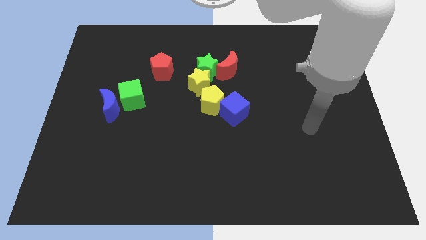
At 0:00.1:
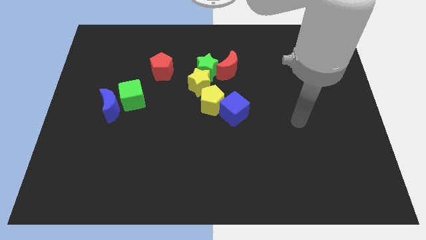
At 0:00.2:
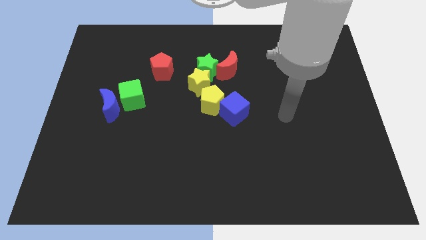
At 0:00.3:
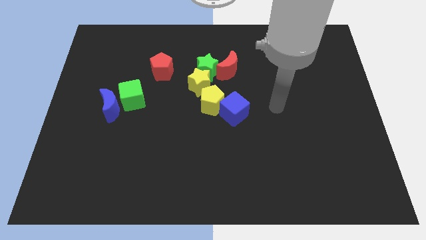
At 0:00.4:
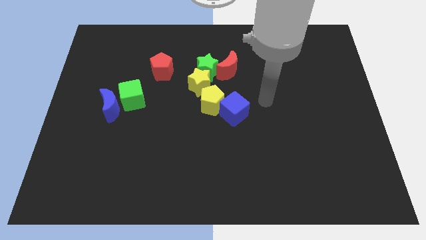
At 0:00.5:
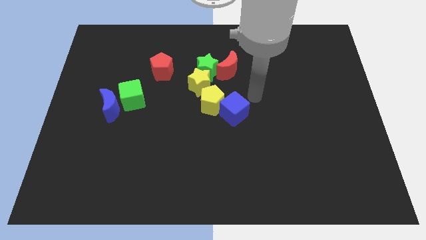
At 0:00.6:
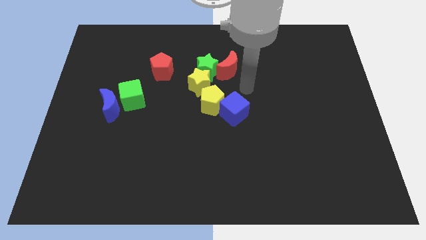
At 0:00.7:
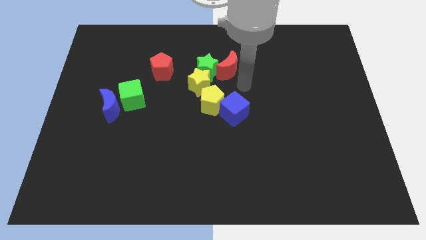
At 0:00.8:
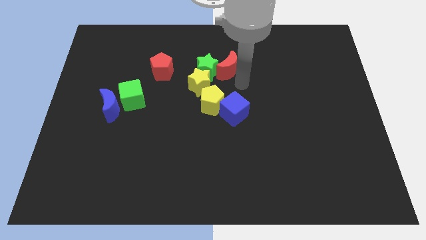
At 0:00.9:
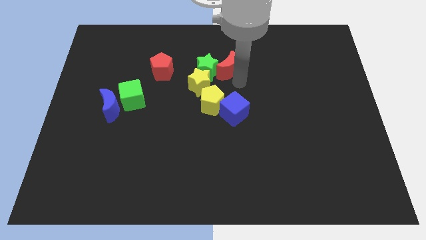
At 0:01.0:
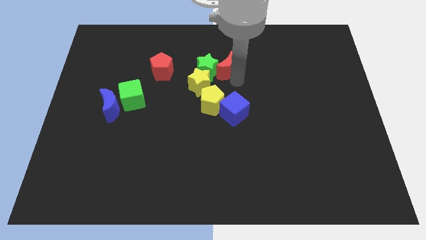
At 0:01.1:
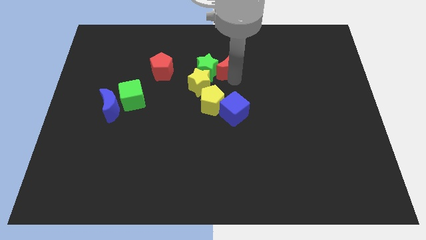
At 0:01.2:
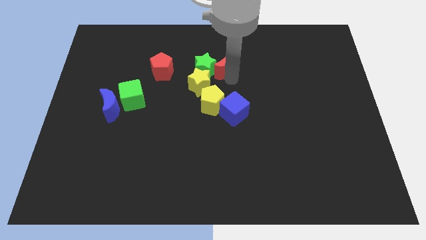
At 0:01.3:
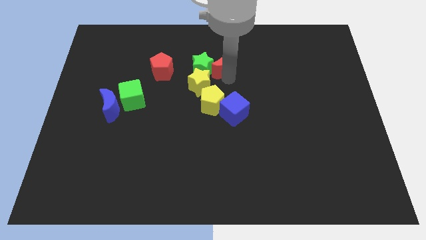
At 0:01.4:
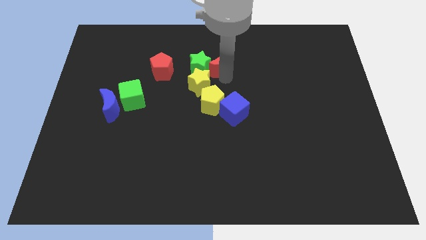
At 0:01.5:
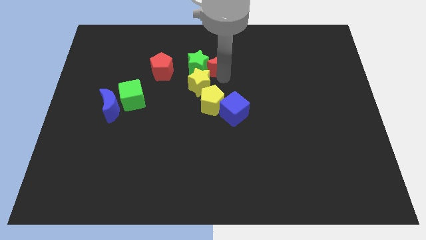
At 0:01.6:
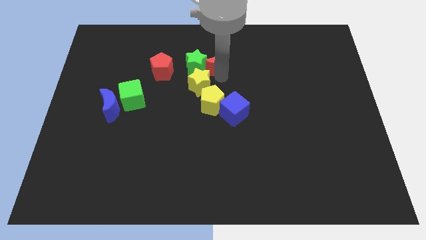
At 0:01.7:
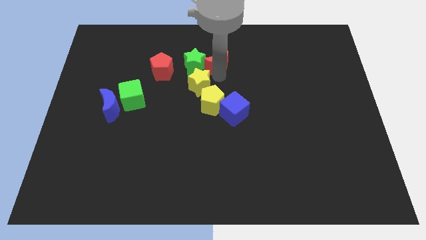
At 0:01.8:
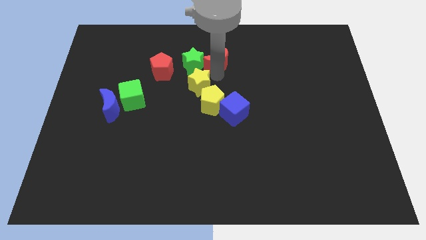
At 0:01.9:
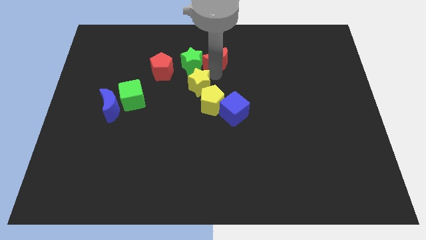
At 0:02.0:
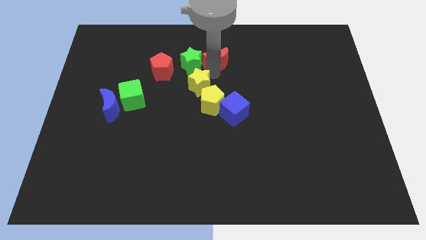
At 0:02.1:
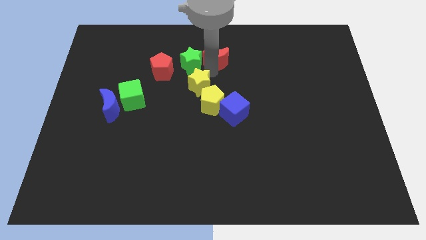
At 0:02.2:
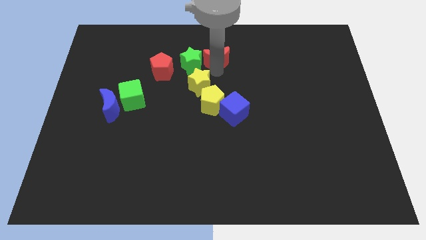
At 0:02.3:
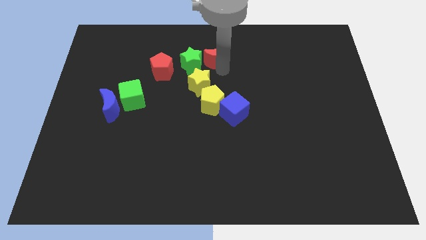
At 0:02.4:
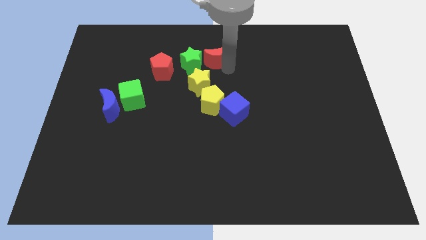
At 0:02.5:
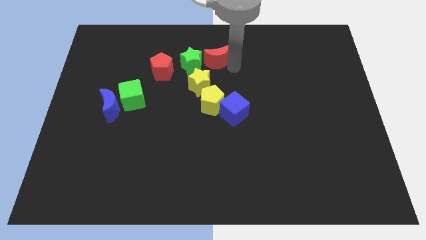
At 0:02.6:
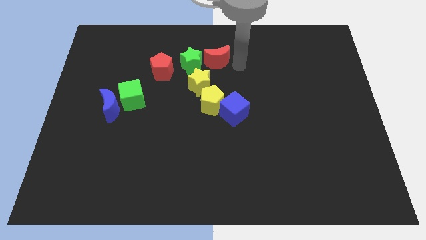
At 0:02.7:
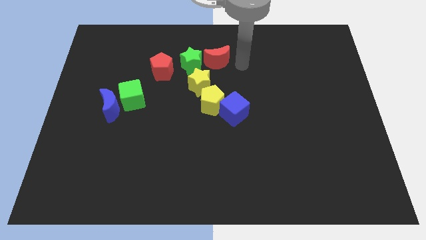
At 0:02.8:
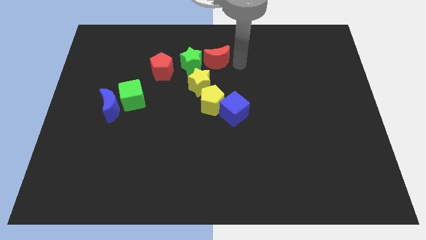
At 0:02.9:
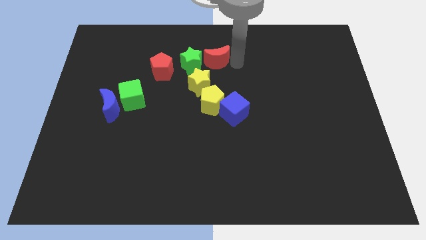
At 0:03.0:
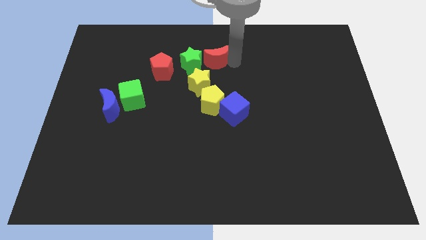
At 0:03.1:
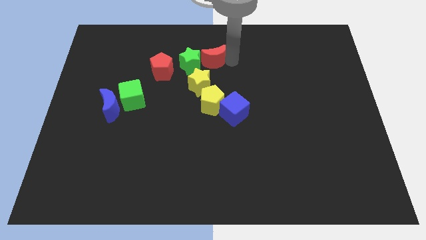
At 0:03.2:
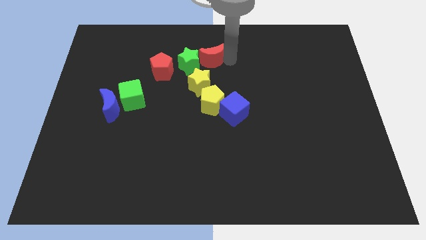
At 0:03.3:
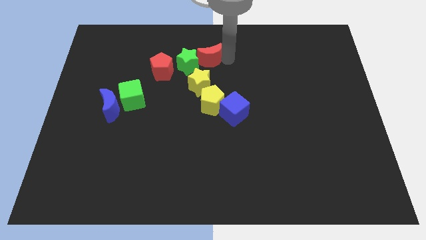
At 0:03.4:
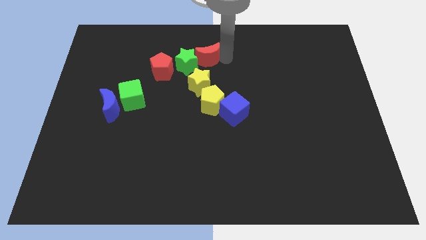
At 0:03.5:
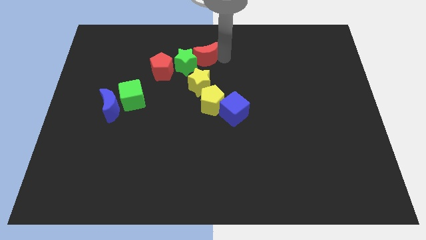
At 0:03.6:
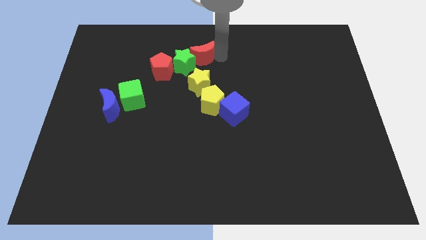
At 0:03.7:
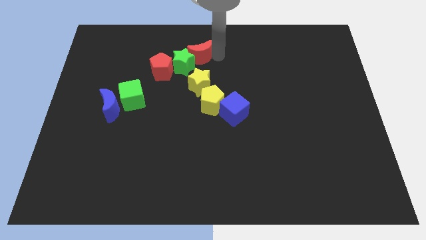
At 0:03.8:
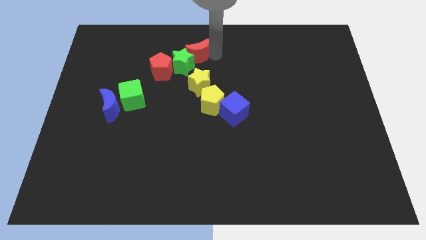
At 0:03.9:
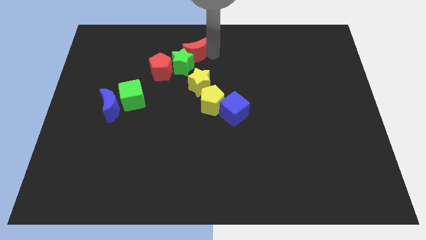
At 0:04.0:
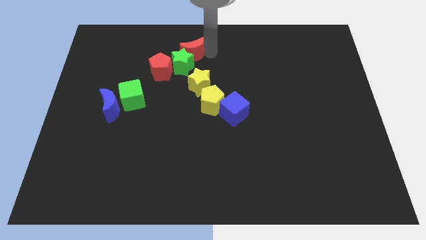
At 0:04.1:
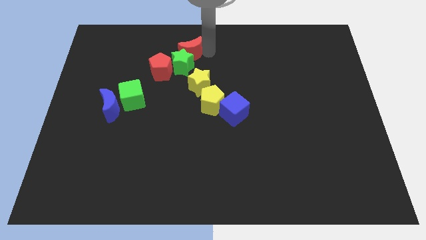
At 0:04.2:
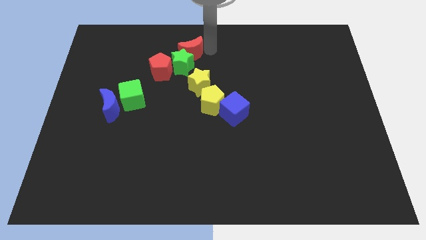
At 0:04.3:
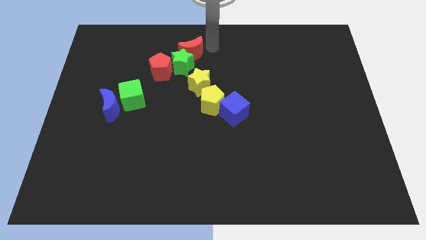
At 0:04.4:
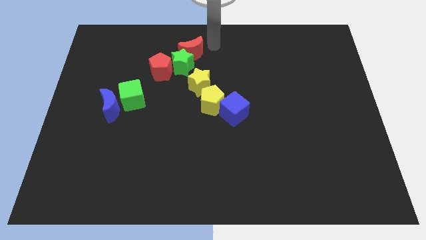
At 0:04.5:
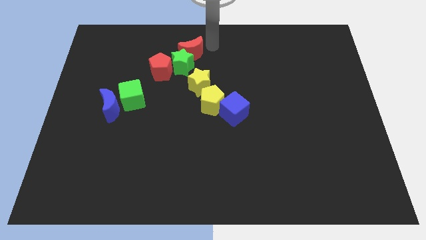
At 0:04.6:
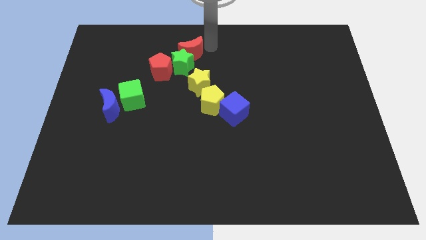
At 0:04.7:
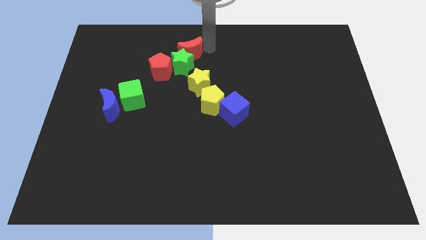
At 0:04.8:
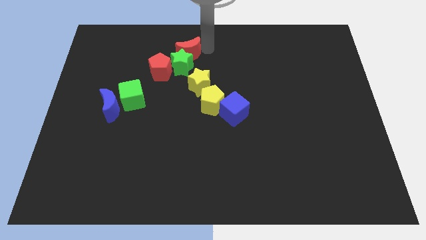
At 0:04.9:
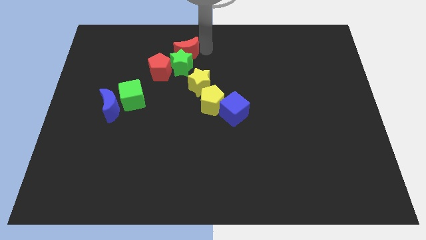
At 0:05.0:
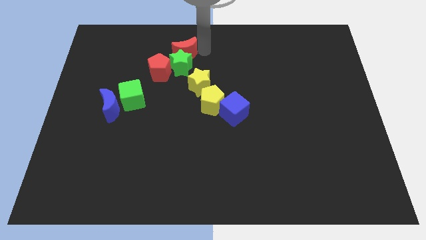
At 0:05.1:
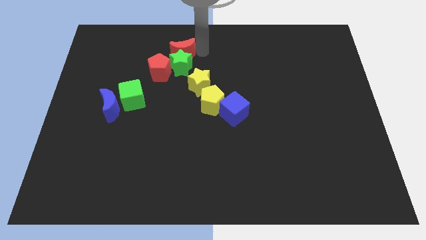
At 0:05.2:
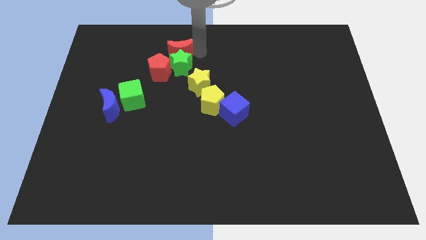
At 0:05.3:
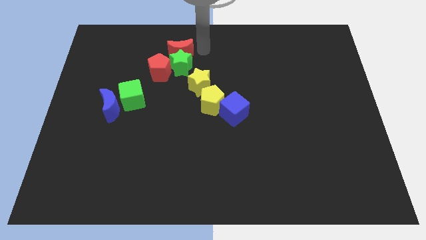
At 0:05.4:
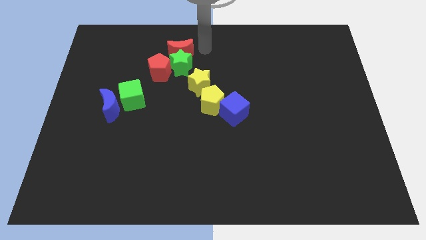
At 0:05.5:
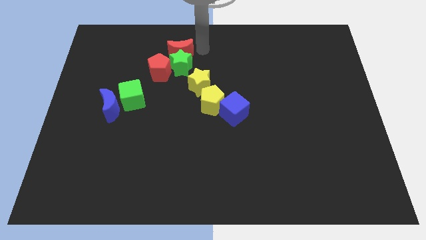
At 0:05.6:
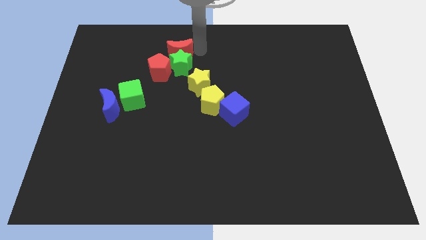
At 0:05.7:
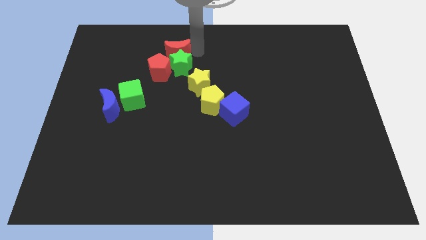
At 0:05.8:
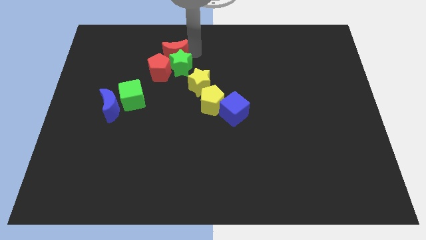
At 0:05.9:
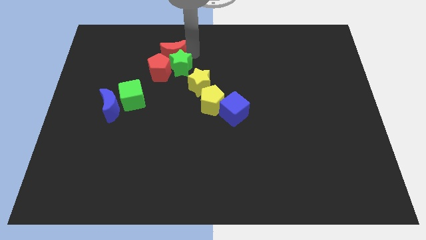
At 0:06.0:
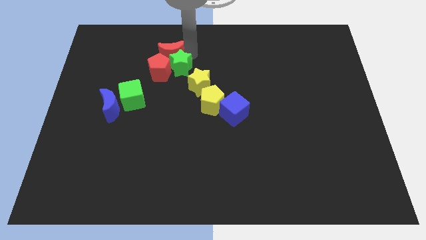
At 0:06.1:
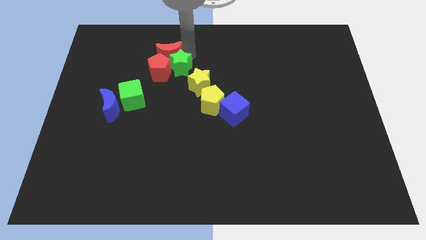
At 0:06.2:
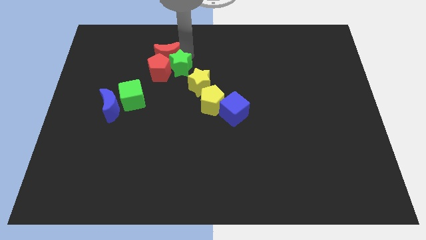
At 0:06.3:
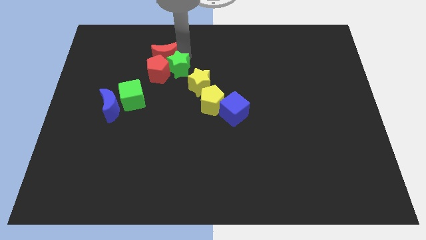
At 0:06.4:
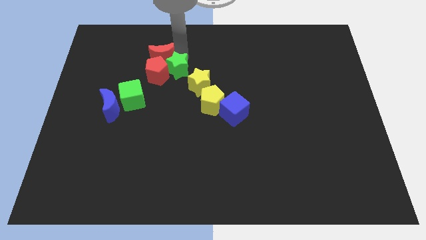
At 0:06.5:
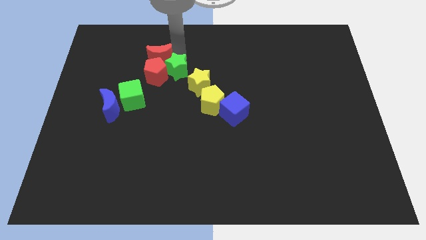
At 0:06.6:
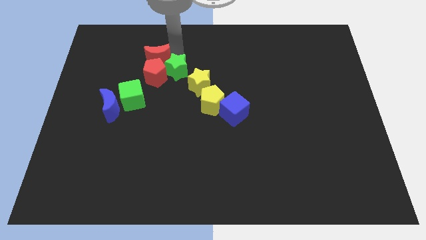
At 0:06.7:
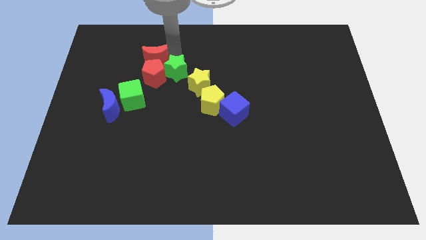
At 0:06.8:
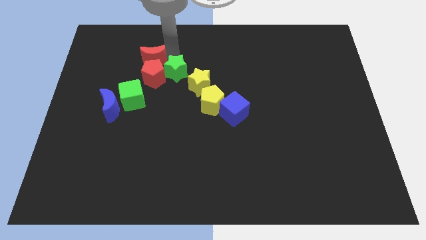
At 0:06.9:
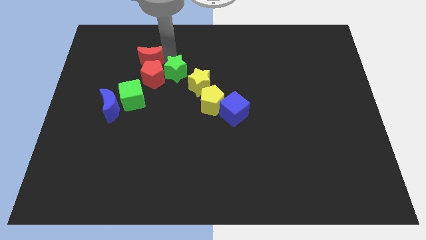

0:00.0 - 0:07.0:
slide the red moon left

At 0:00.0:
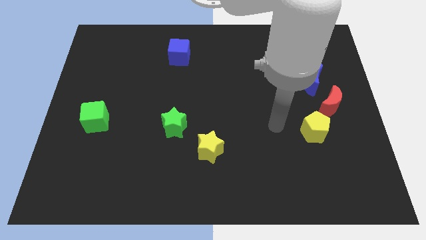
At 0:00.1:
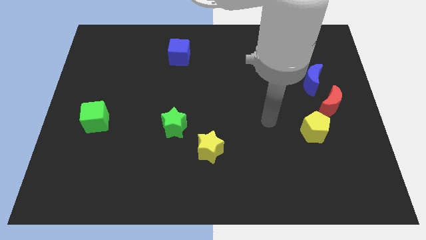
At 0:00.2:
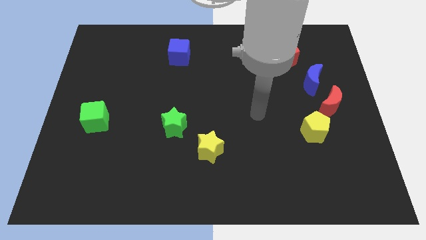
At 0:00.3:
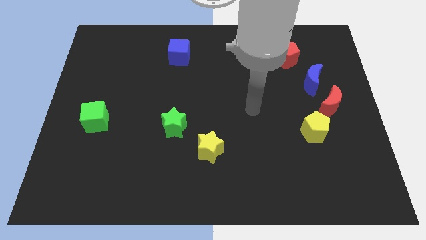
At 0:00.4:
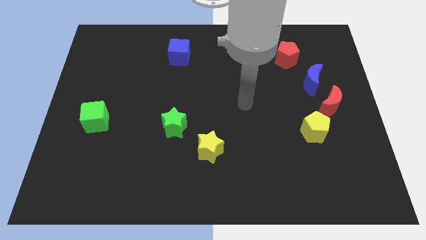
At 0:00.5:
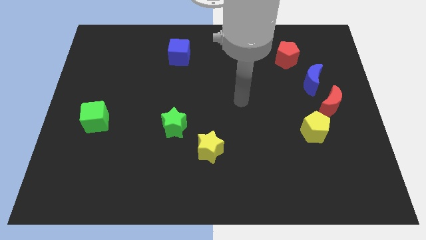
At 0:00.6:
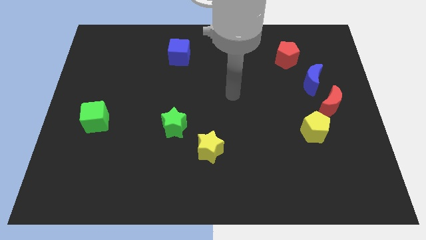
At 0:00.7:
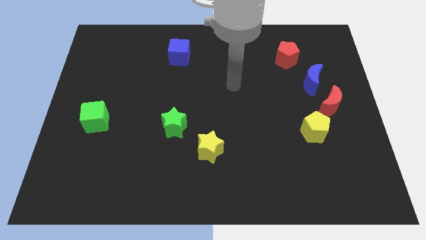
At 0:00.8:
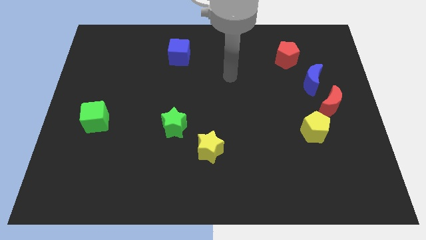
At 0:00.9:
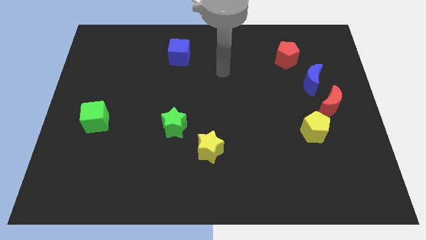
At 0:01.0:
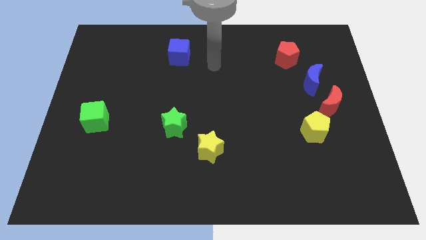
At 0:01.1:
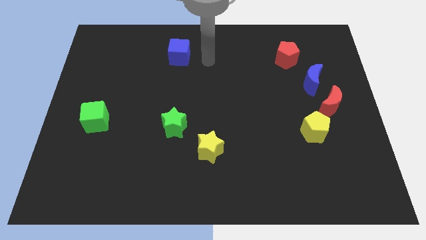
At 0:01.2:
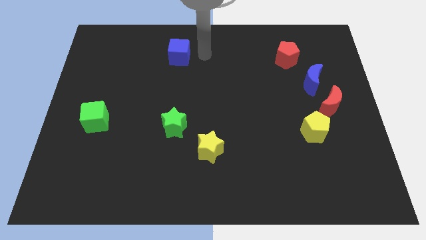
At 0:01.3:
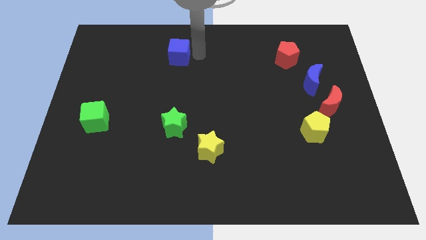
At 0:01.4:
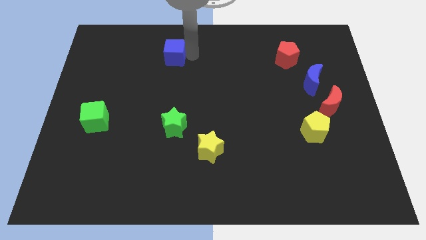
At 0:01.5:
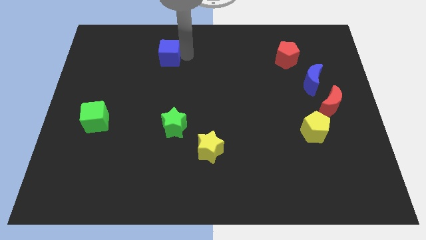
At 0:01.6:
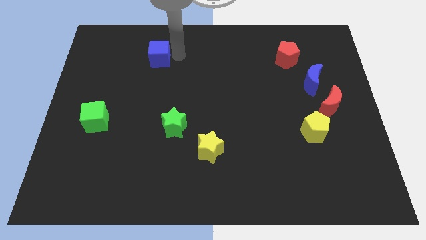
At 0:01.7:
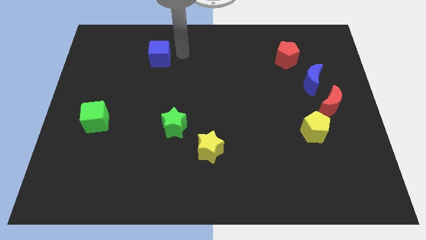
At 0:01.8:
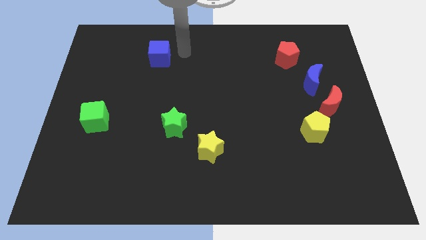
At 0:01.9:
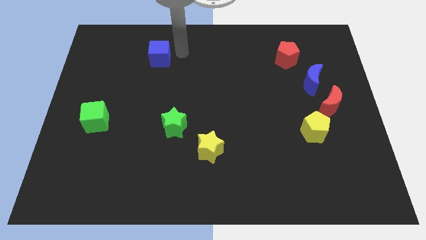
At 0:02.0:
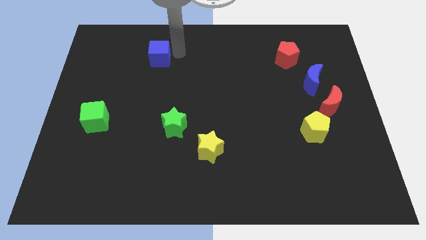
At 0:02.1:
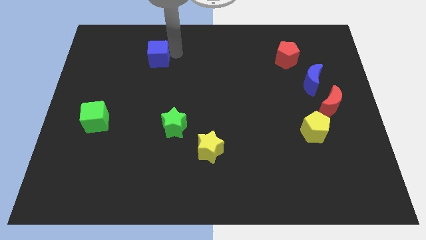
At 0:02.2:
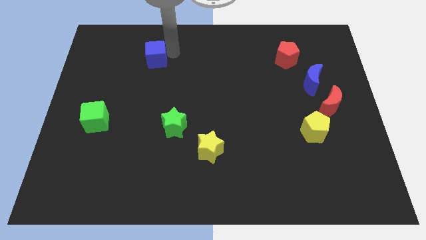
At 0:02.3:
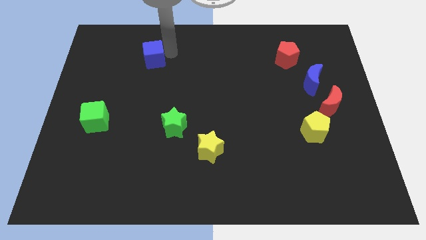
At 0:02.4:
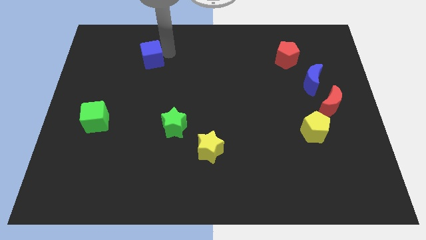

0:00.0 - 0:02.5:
push the blue cube to the left a little bit
